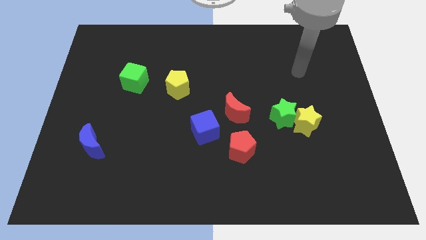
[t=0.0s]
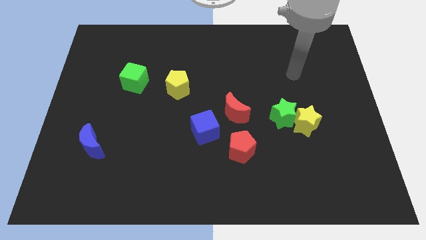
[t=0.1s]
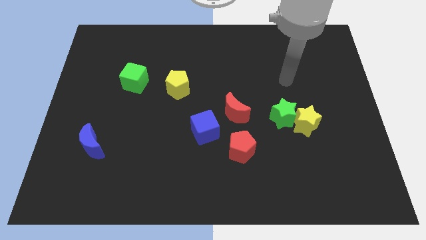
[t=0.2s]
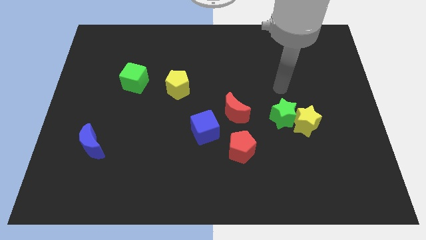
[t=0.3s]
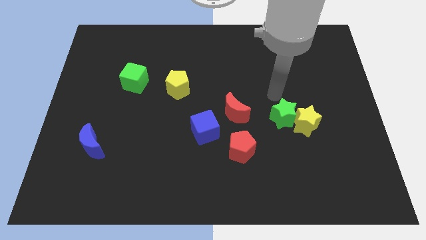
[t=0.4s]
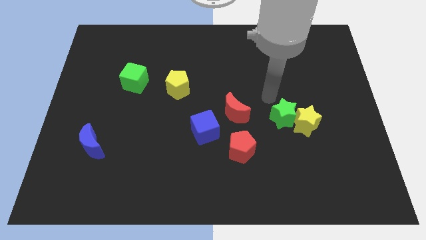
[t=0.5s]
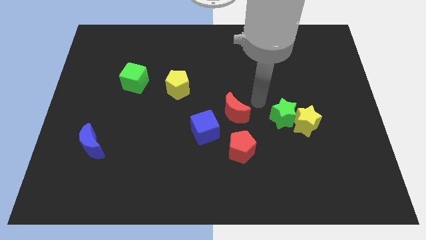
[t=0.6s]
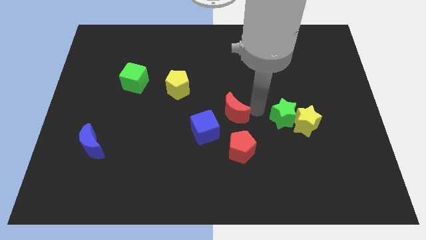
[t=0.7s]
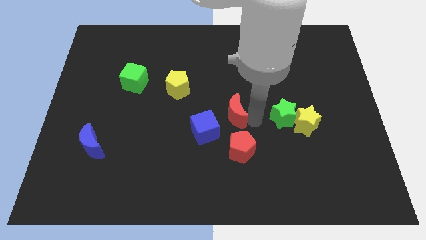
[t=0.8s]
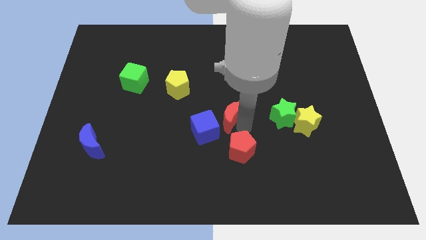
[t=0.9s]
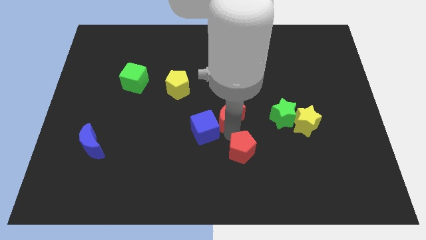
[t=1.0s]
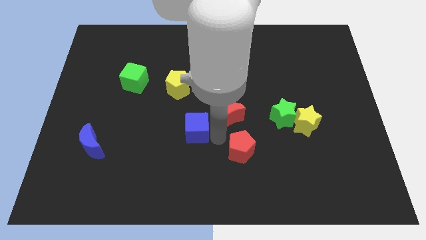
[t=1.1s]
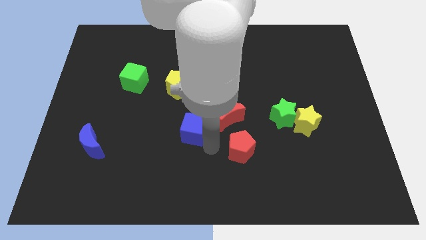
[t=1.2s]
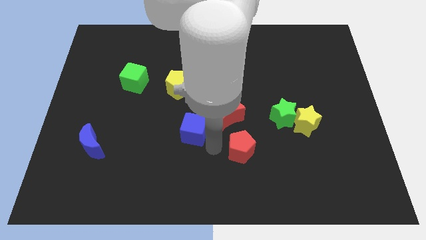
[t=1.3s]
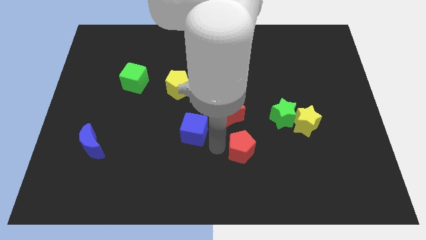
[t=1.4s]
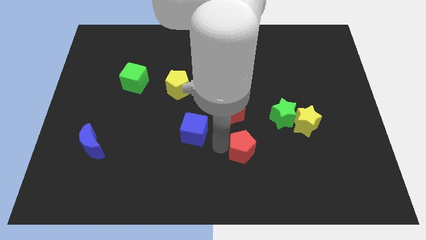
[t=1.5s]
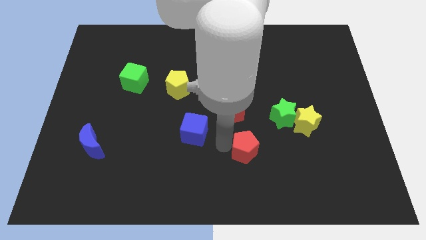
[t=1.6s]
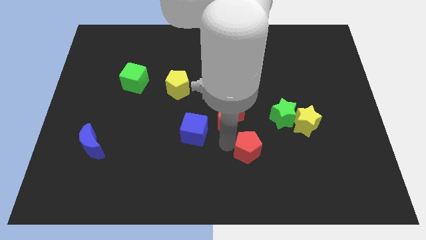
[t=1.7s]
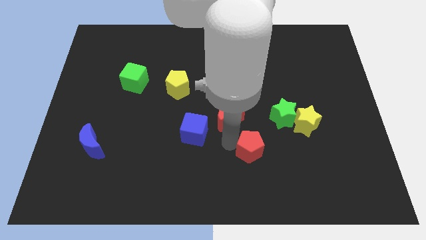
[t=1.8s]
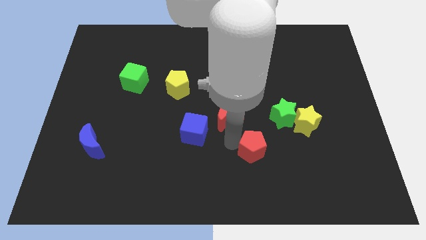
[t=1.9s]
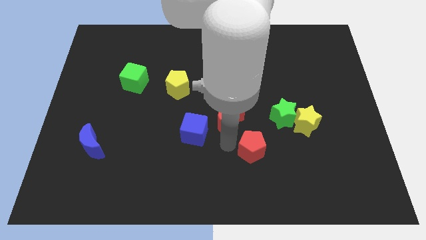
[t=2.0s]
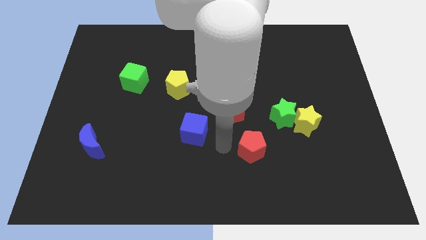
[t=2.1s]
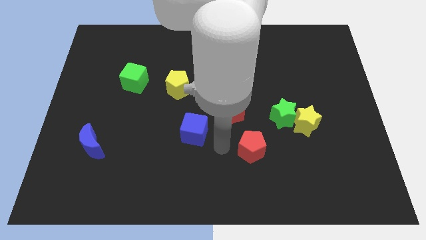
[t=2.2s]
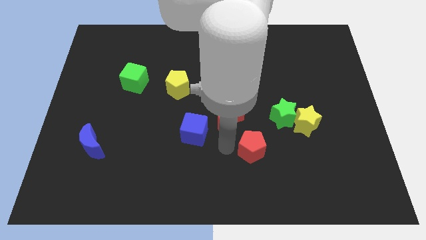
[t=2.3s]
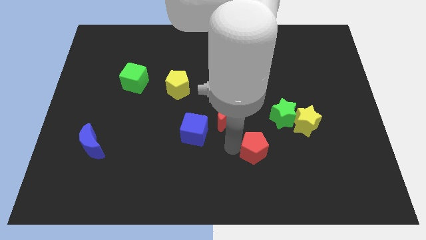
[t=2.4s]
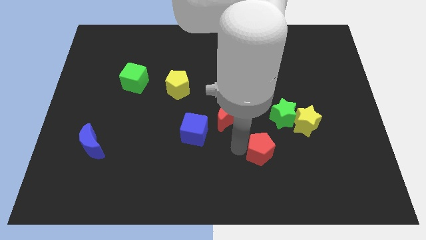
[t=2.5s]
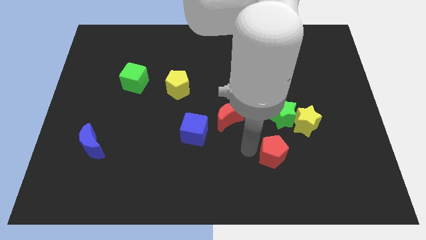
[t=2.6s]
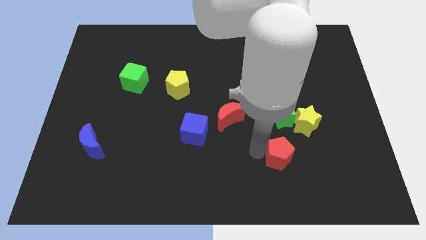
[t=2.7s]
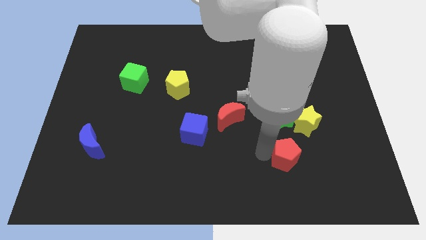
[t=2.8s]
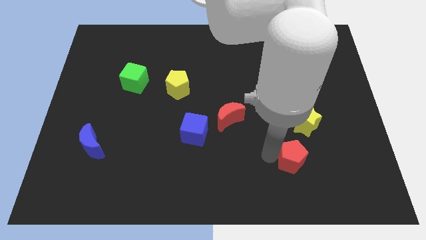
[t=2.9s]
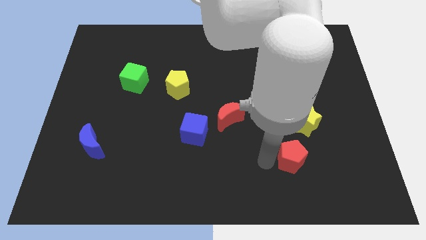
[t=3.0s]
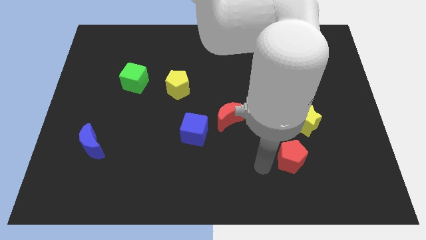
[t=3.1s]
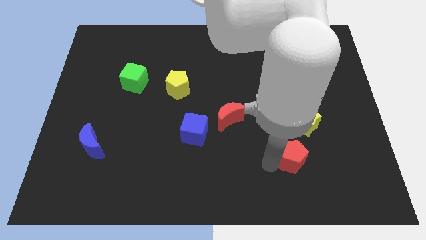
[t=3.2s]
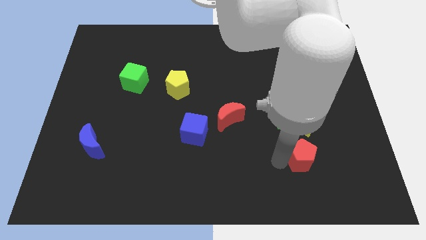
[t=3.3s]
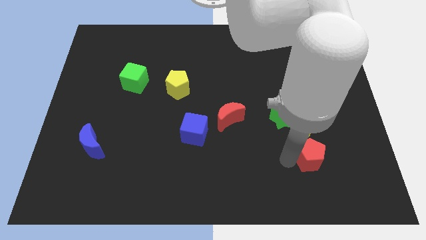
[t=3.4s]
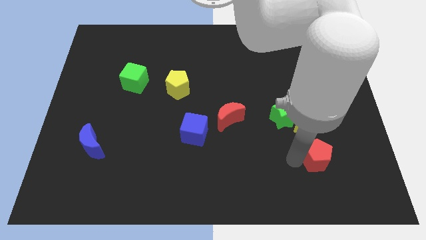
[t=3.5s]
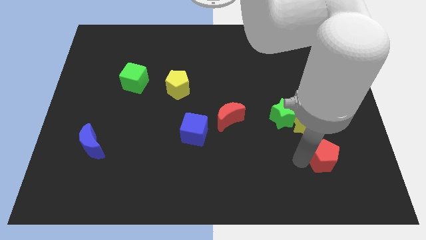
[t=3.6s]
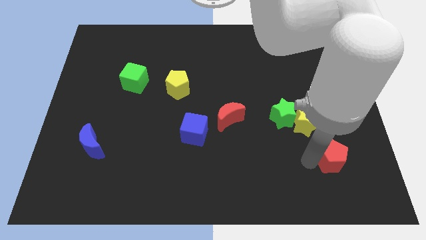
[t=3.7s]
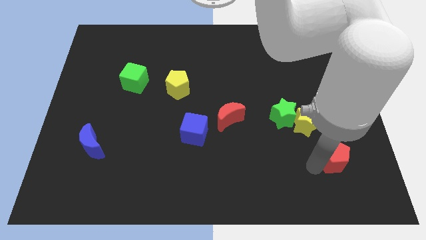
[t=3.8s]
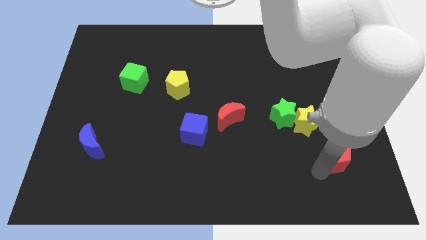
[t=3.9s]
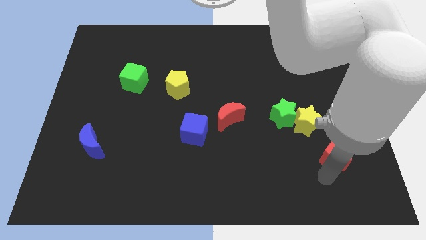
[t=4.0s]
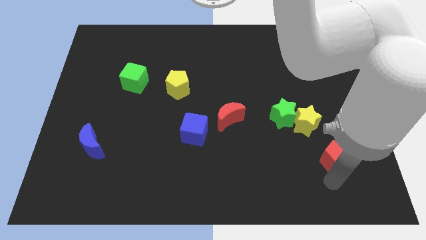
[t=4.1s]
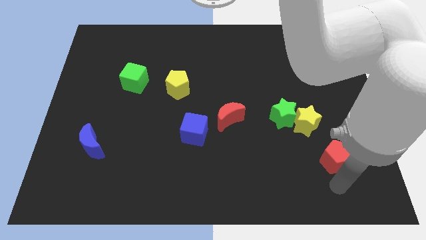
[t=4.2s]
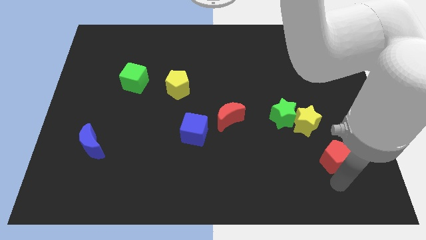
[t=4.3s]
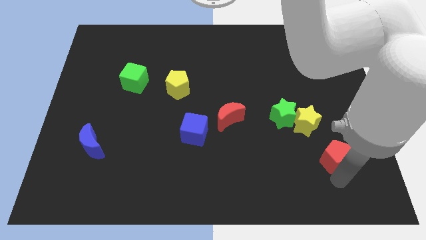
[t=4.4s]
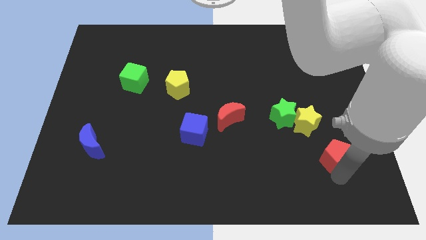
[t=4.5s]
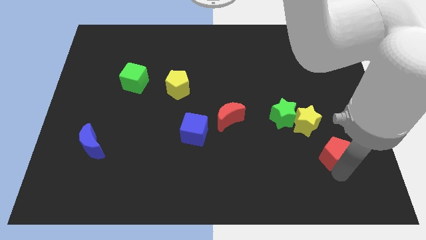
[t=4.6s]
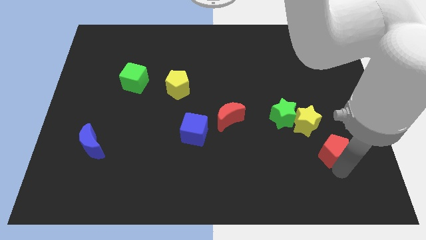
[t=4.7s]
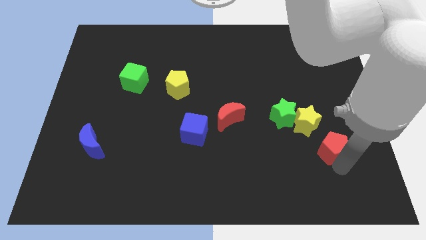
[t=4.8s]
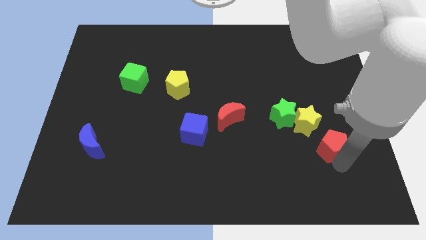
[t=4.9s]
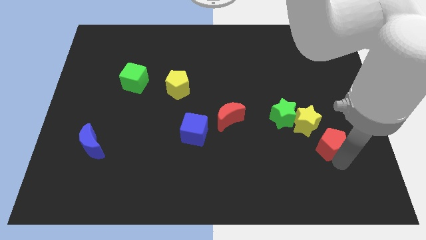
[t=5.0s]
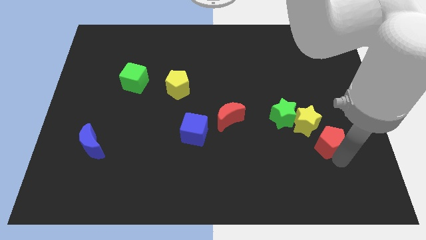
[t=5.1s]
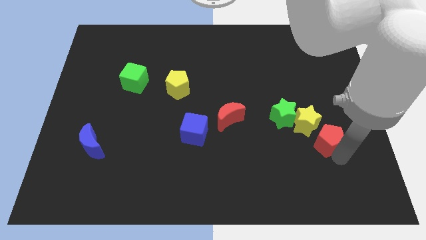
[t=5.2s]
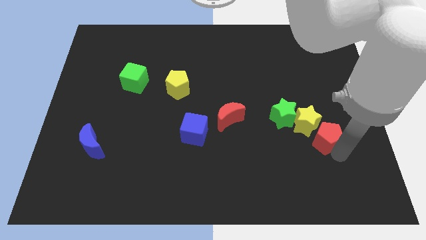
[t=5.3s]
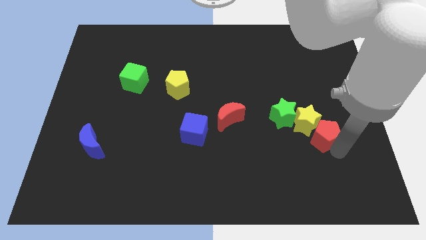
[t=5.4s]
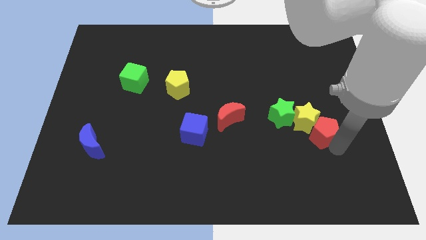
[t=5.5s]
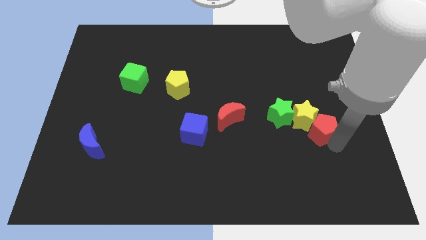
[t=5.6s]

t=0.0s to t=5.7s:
move the red pentagon right of the green star

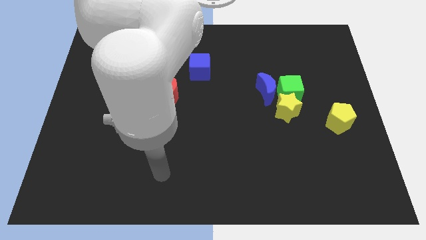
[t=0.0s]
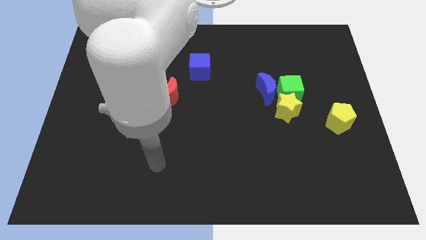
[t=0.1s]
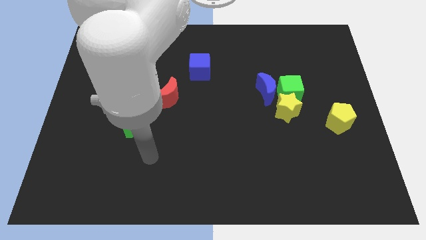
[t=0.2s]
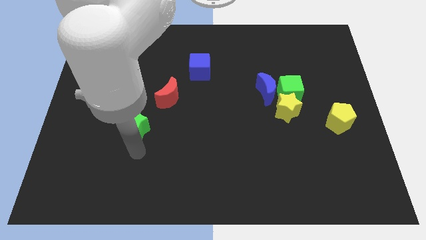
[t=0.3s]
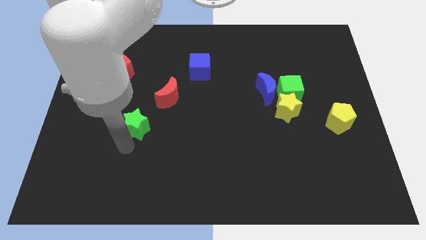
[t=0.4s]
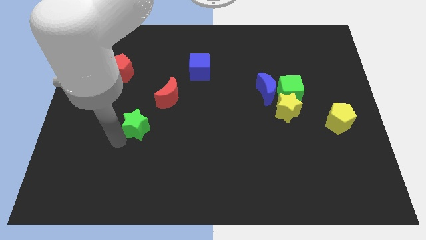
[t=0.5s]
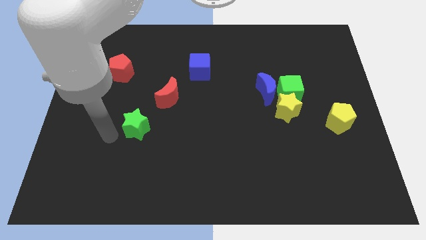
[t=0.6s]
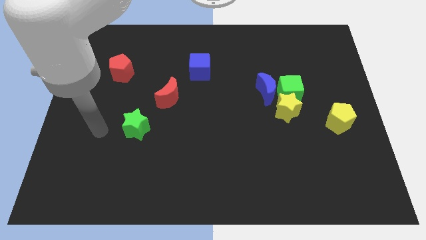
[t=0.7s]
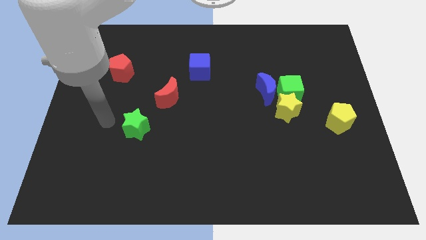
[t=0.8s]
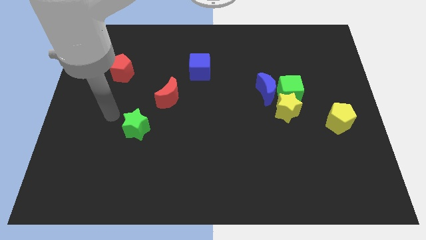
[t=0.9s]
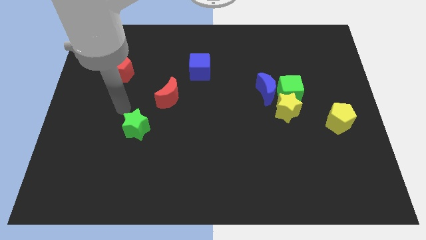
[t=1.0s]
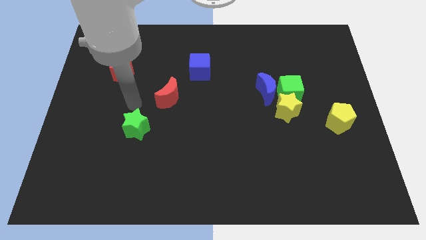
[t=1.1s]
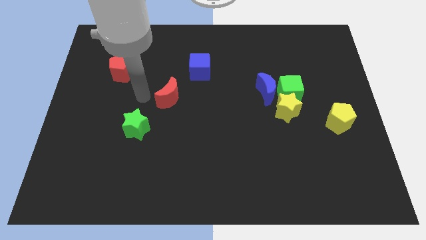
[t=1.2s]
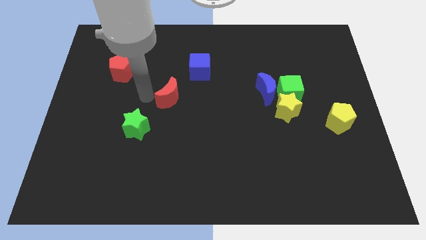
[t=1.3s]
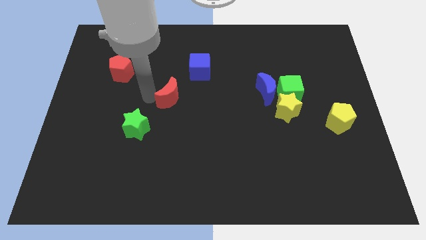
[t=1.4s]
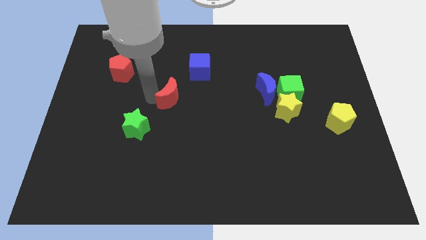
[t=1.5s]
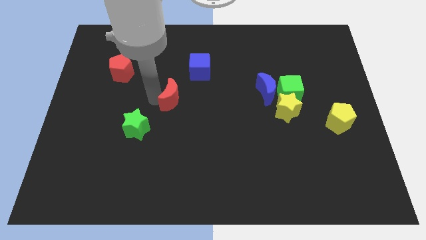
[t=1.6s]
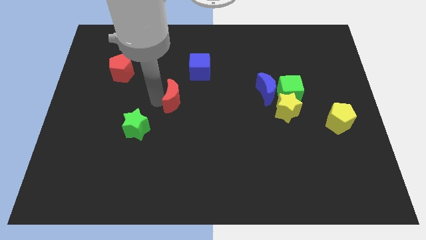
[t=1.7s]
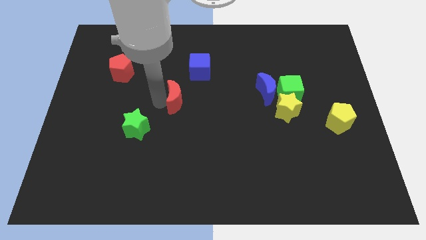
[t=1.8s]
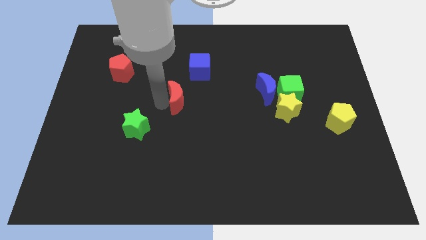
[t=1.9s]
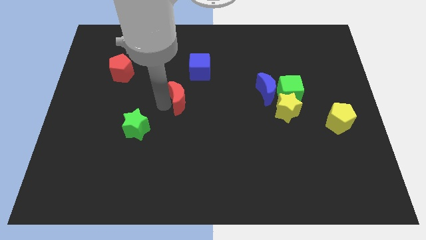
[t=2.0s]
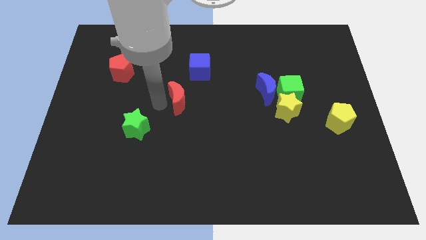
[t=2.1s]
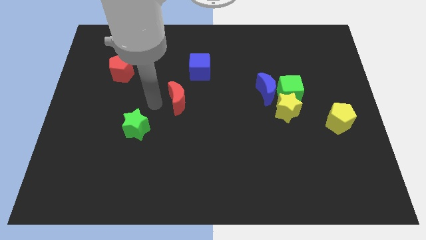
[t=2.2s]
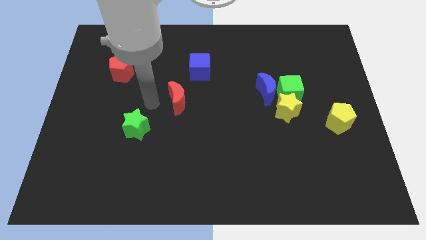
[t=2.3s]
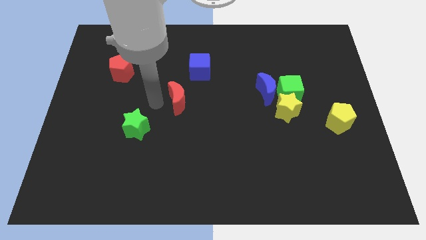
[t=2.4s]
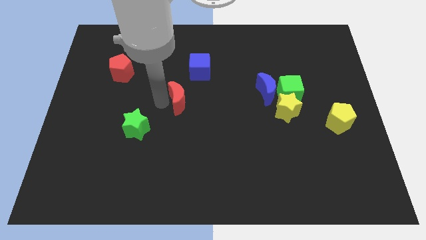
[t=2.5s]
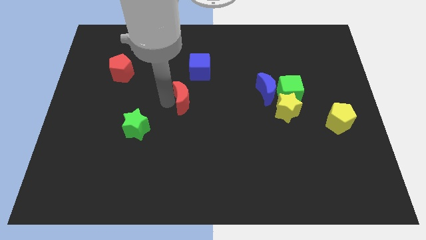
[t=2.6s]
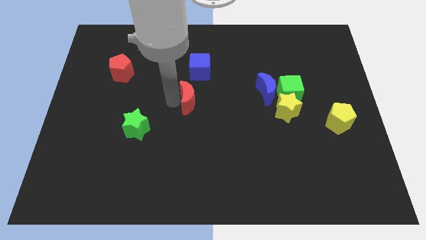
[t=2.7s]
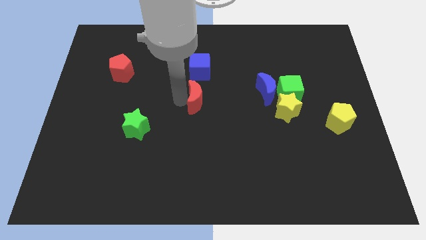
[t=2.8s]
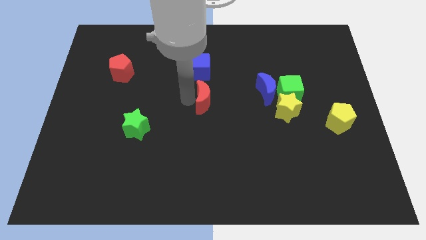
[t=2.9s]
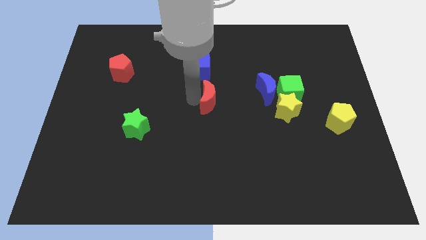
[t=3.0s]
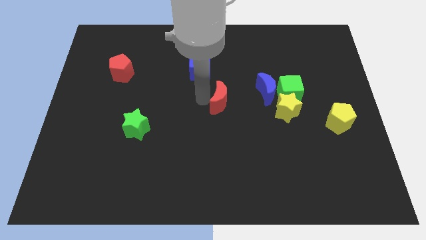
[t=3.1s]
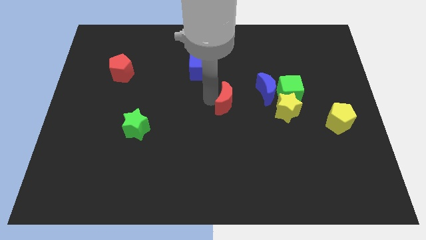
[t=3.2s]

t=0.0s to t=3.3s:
push the red moon to the bottom left side of the blue moon
